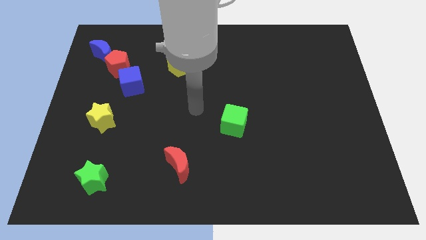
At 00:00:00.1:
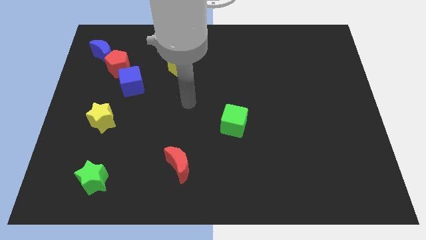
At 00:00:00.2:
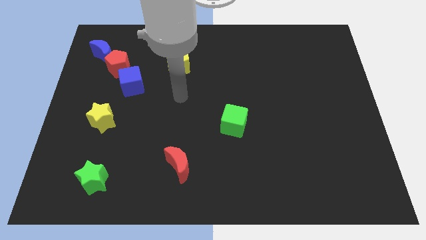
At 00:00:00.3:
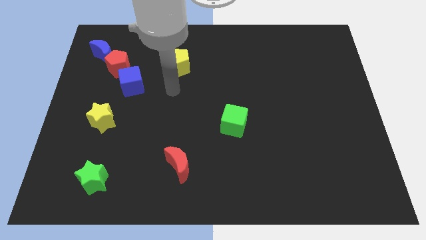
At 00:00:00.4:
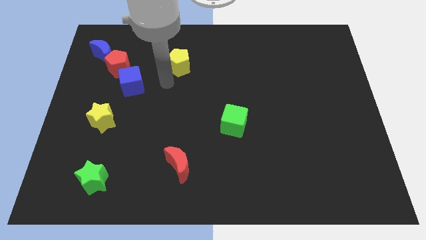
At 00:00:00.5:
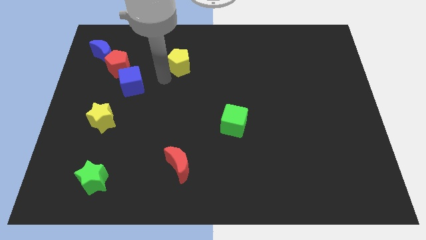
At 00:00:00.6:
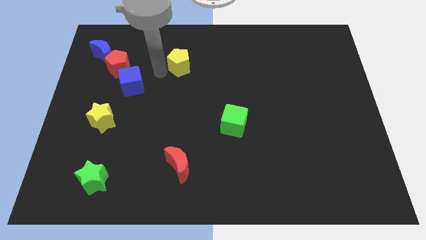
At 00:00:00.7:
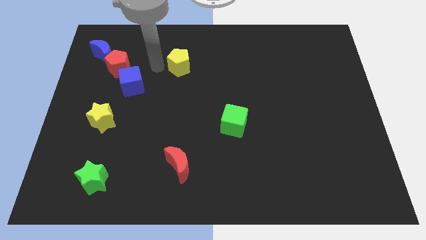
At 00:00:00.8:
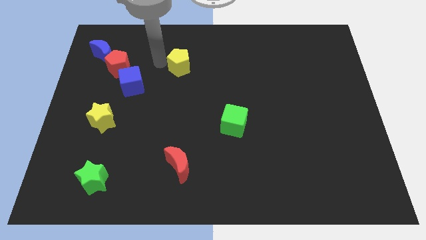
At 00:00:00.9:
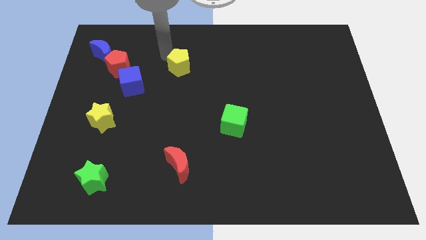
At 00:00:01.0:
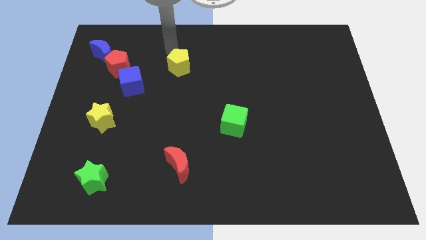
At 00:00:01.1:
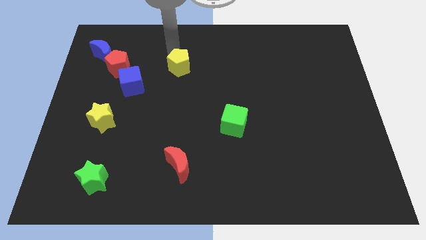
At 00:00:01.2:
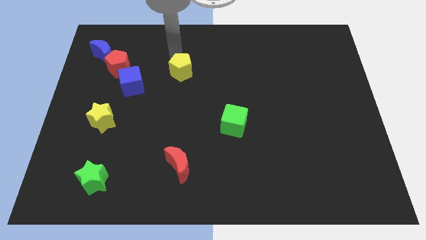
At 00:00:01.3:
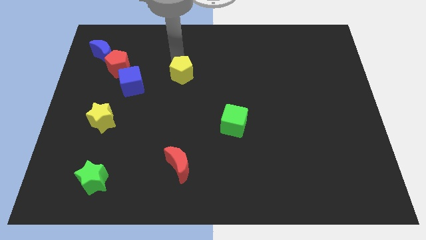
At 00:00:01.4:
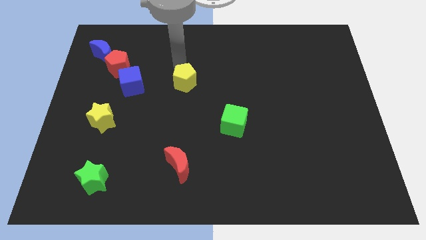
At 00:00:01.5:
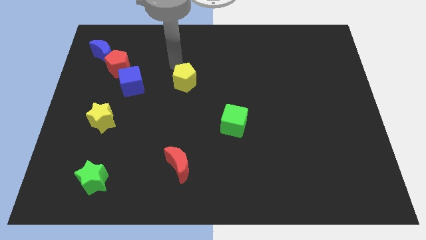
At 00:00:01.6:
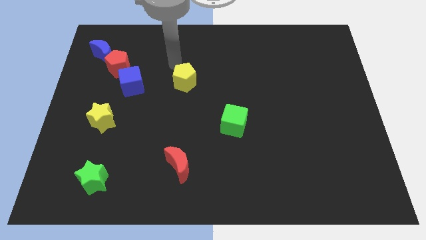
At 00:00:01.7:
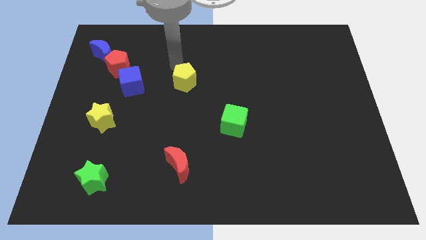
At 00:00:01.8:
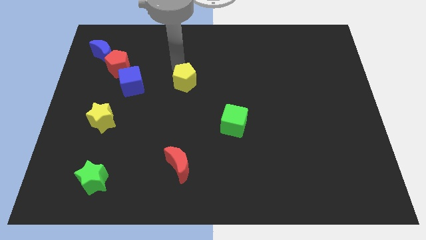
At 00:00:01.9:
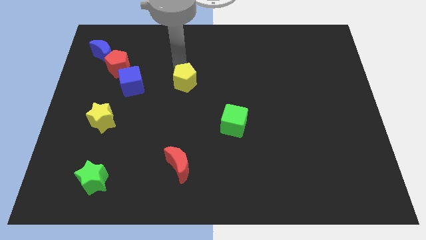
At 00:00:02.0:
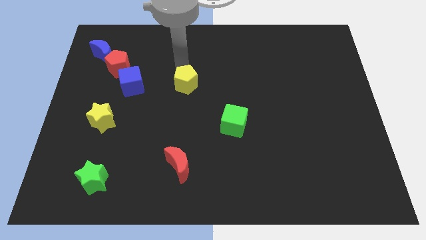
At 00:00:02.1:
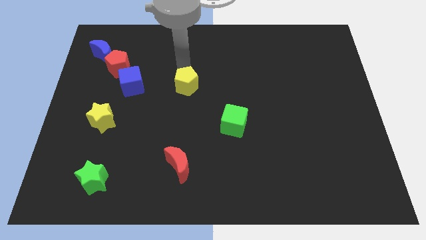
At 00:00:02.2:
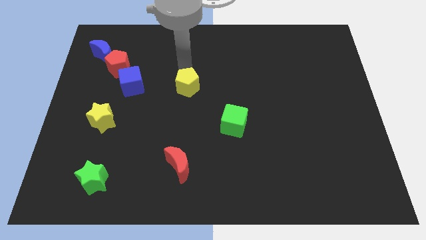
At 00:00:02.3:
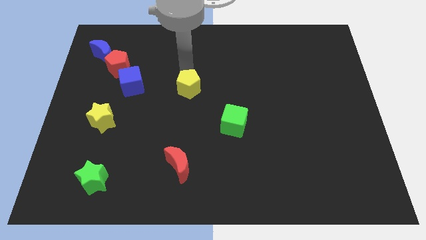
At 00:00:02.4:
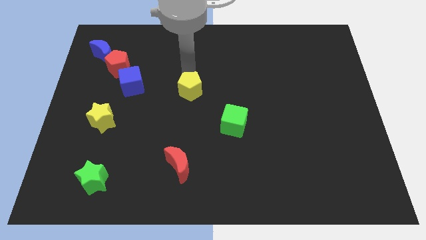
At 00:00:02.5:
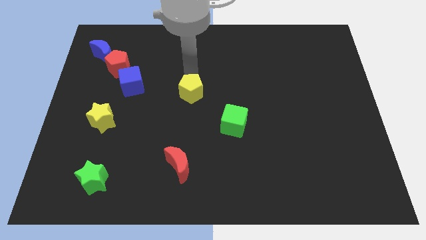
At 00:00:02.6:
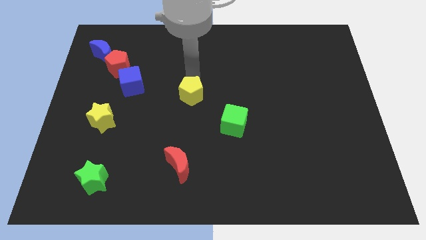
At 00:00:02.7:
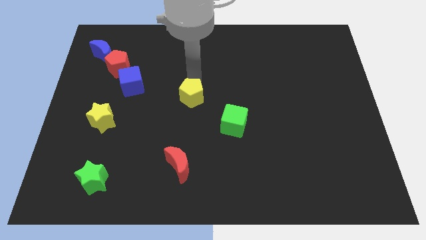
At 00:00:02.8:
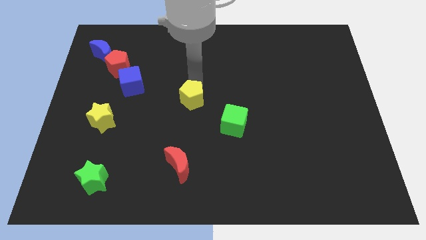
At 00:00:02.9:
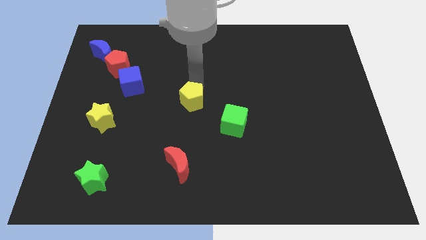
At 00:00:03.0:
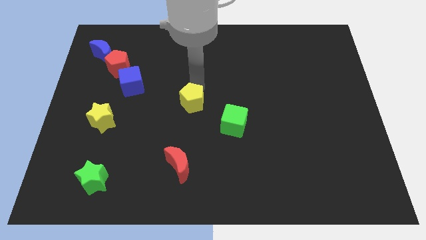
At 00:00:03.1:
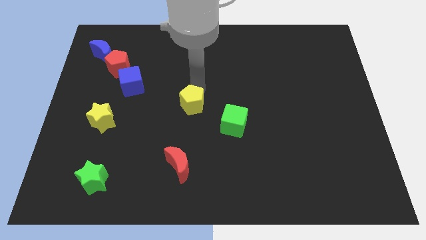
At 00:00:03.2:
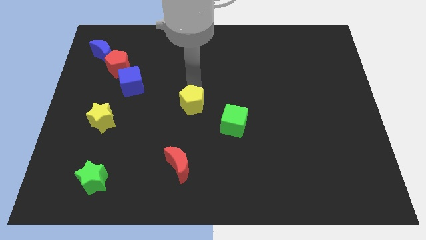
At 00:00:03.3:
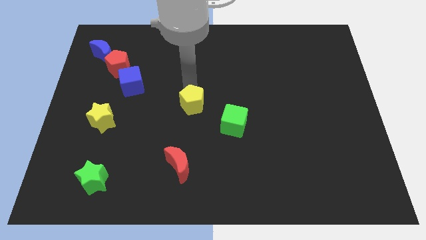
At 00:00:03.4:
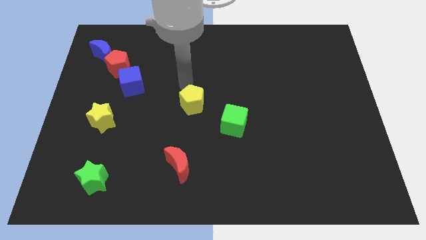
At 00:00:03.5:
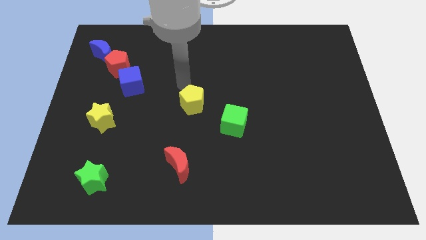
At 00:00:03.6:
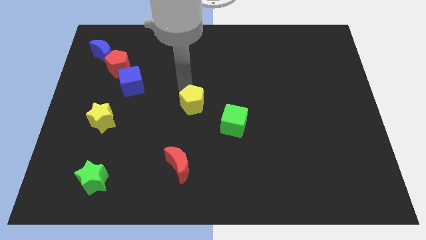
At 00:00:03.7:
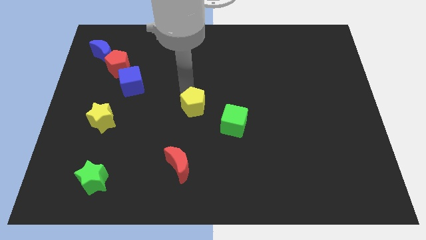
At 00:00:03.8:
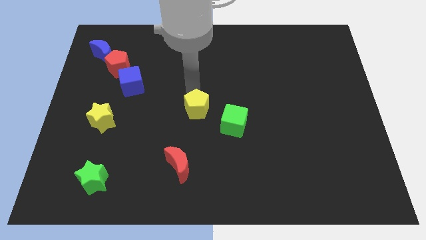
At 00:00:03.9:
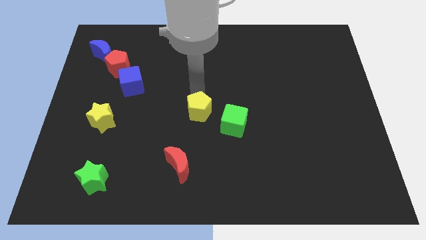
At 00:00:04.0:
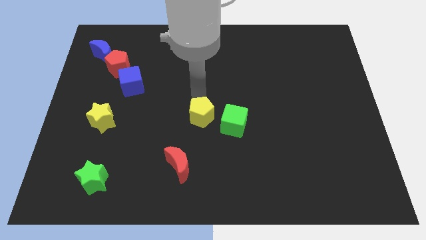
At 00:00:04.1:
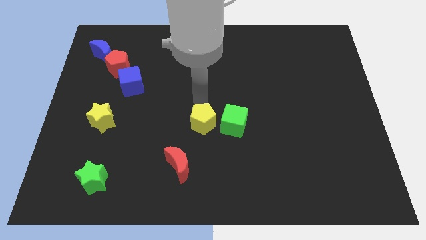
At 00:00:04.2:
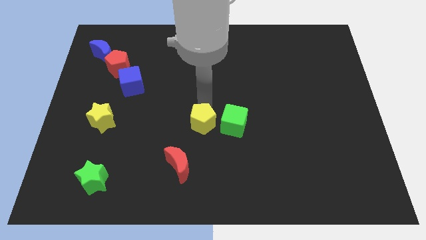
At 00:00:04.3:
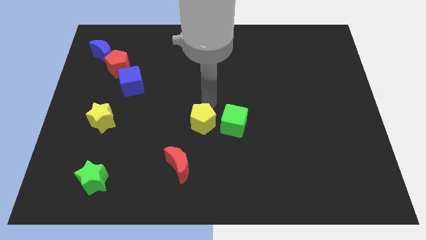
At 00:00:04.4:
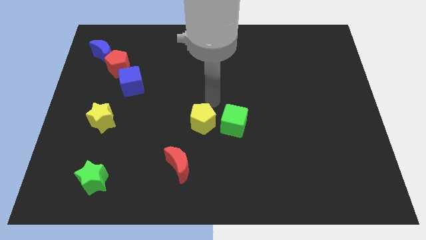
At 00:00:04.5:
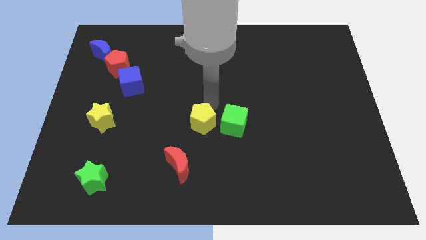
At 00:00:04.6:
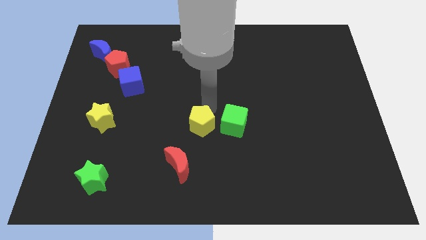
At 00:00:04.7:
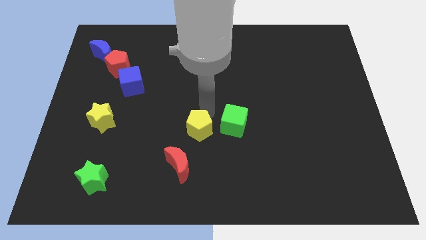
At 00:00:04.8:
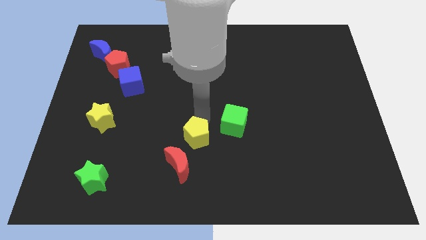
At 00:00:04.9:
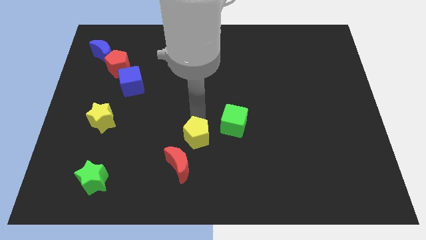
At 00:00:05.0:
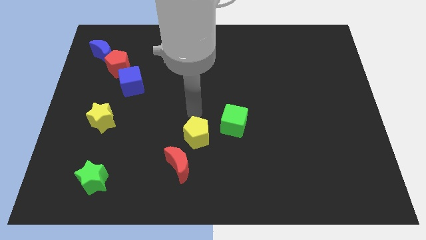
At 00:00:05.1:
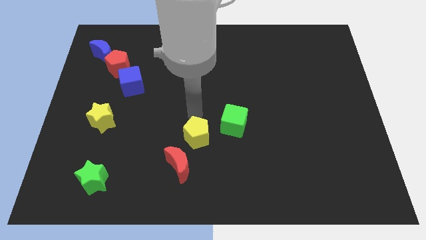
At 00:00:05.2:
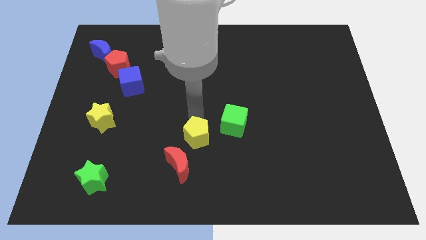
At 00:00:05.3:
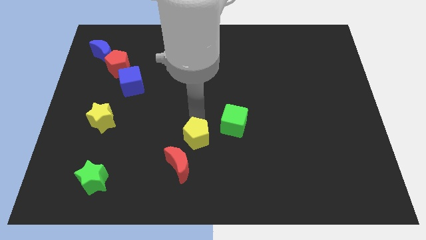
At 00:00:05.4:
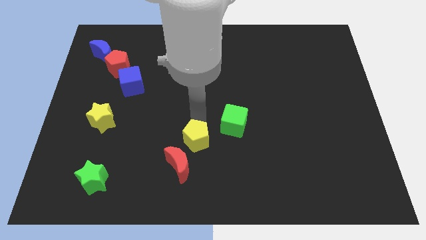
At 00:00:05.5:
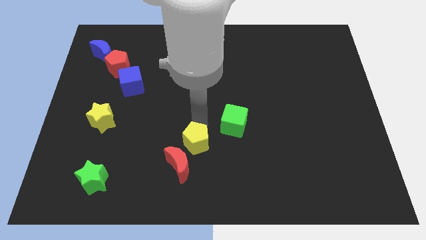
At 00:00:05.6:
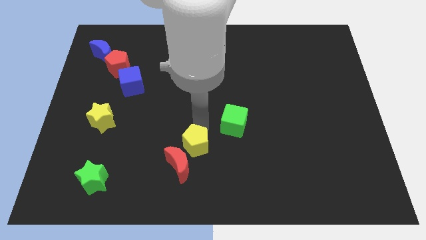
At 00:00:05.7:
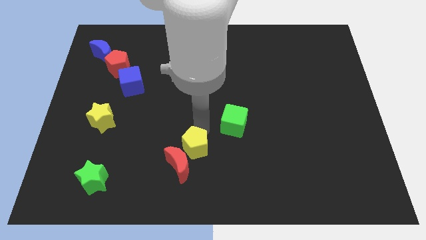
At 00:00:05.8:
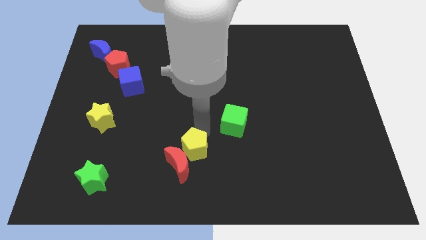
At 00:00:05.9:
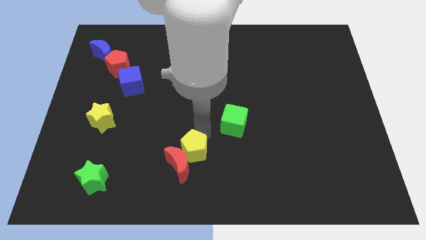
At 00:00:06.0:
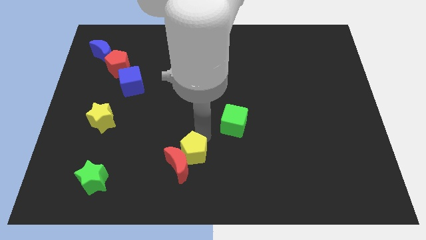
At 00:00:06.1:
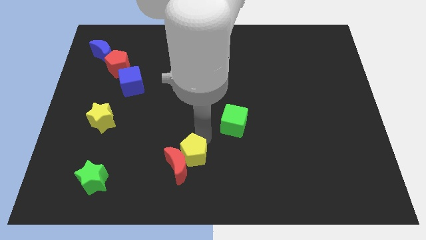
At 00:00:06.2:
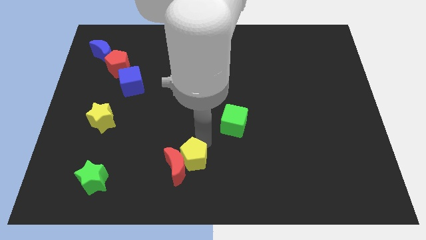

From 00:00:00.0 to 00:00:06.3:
move the yellow pentagon to the bottom
